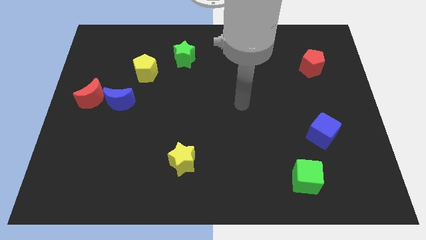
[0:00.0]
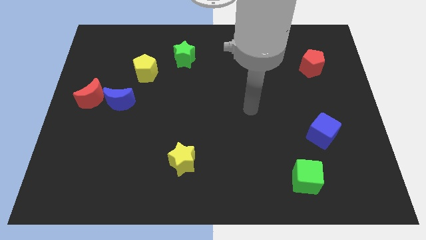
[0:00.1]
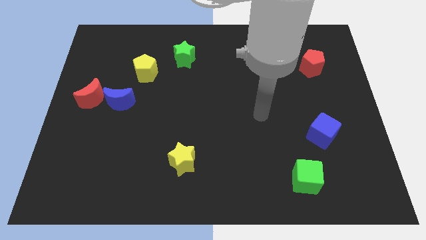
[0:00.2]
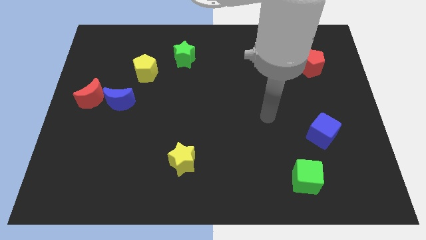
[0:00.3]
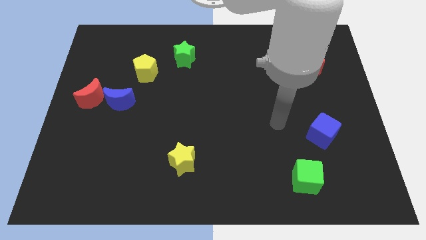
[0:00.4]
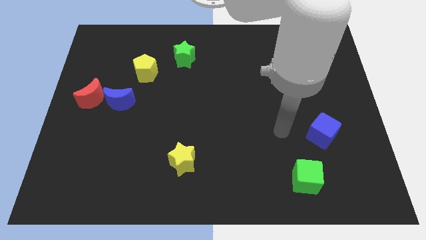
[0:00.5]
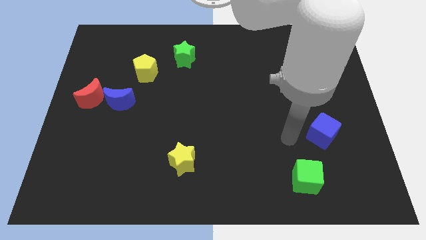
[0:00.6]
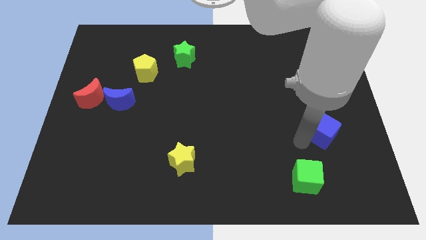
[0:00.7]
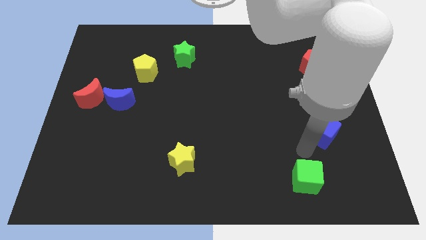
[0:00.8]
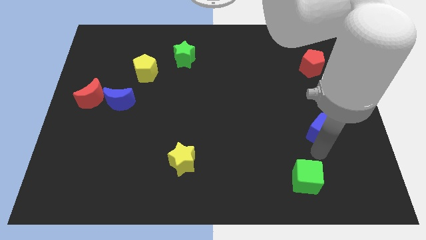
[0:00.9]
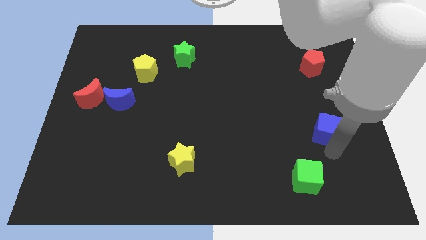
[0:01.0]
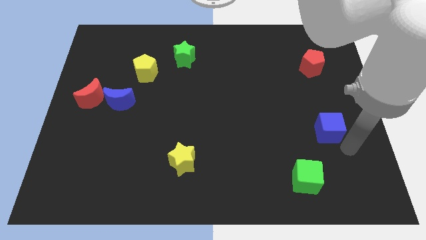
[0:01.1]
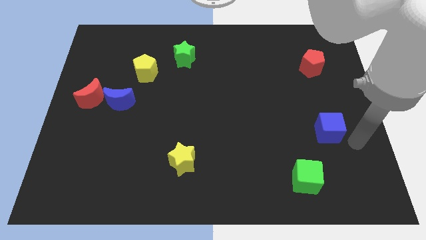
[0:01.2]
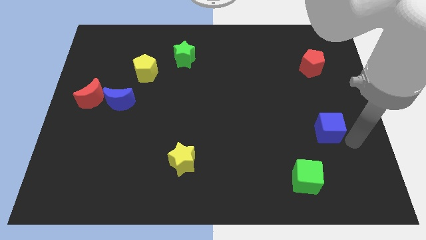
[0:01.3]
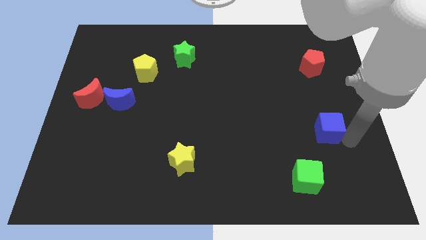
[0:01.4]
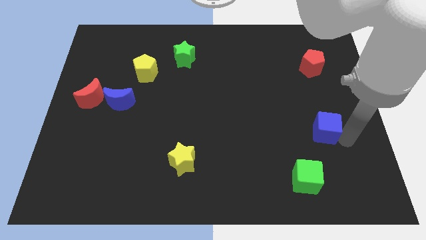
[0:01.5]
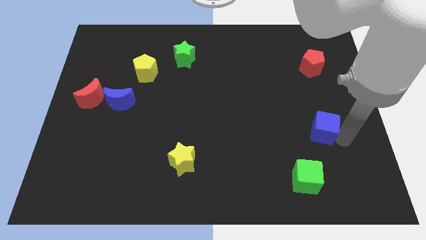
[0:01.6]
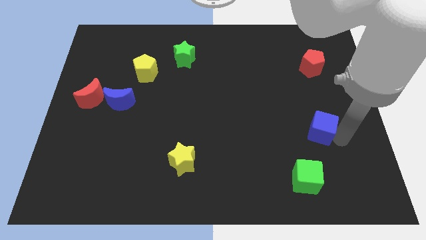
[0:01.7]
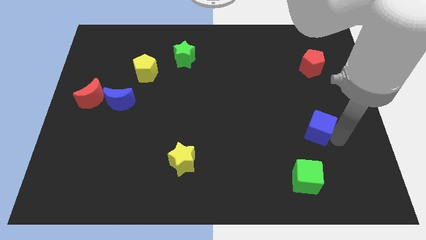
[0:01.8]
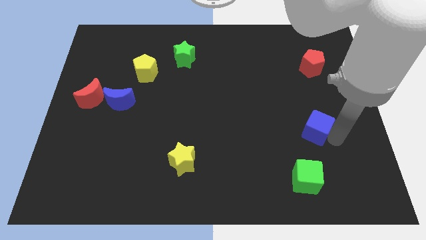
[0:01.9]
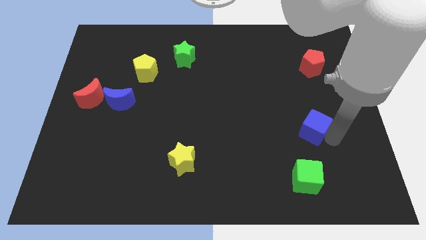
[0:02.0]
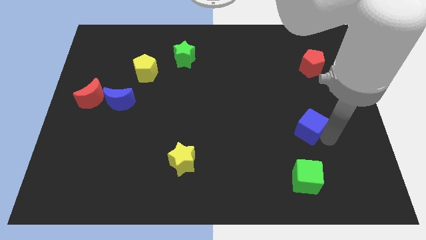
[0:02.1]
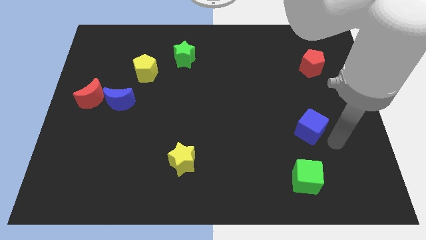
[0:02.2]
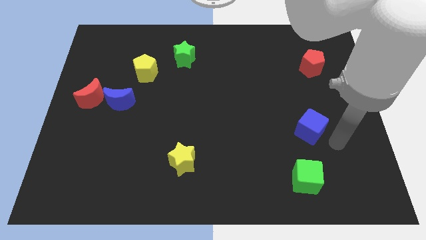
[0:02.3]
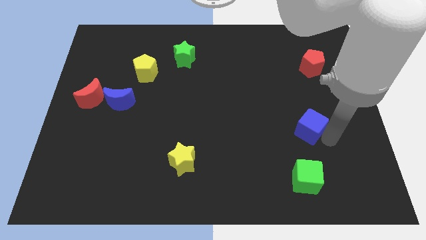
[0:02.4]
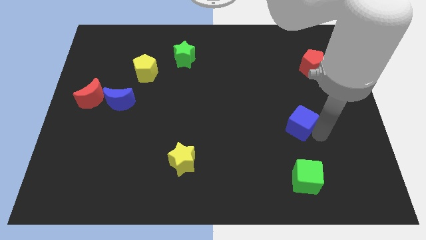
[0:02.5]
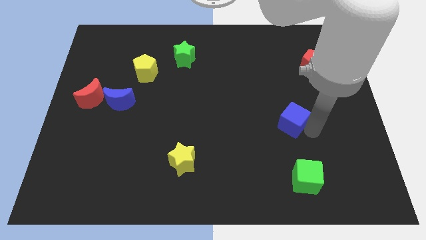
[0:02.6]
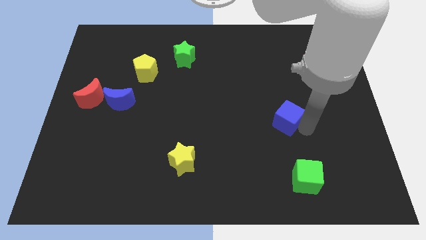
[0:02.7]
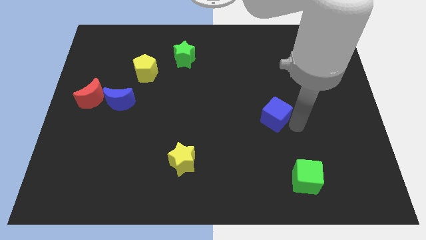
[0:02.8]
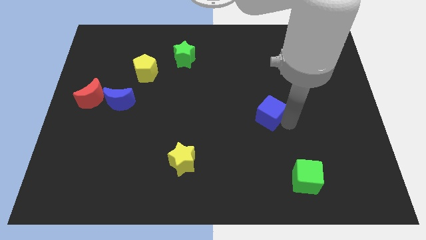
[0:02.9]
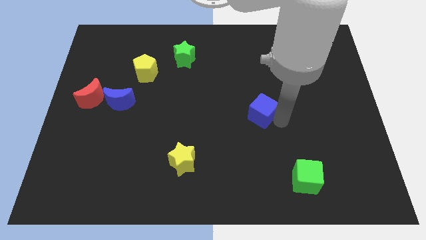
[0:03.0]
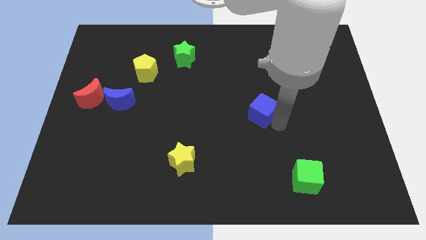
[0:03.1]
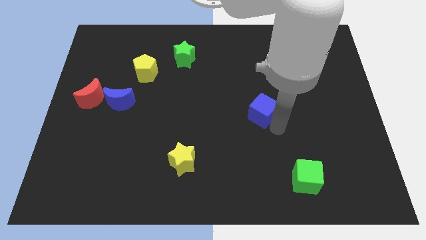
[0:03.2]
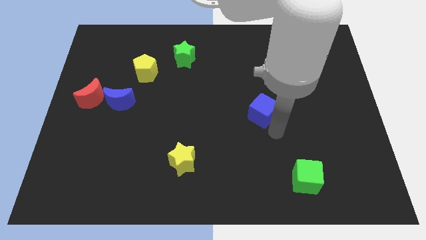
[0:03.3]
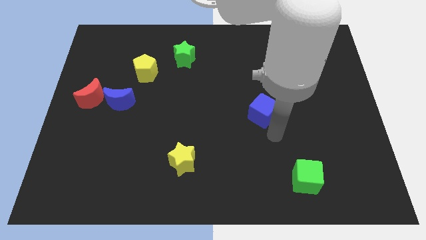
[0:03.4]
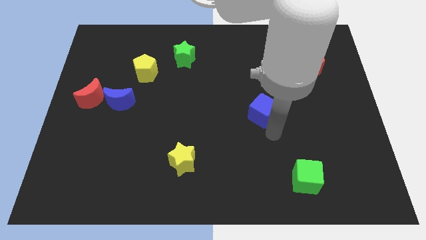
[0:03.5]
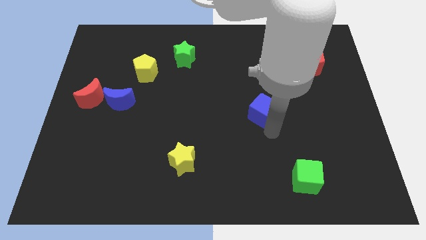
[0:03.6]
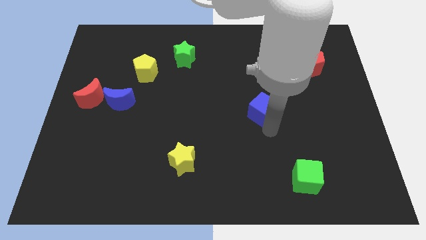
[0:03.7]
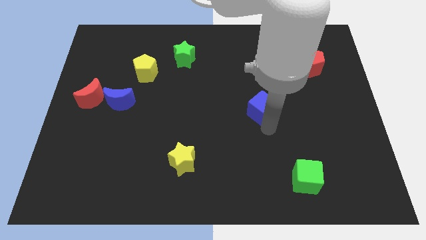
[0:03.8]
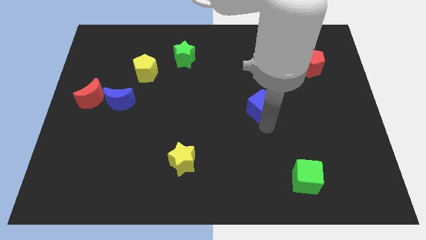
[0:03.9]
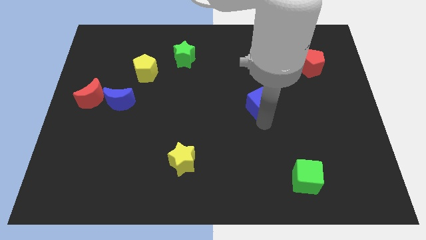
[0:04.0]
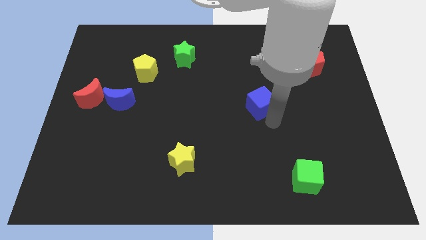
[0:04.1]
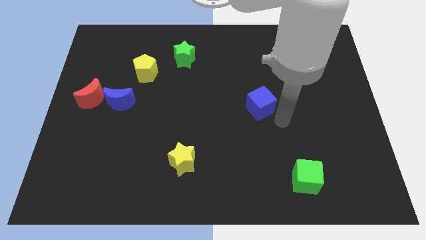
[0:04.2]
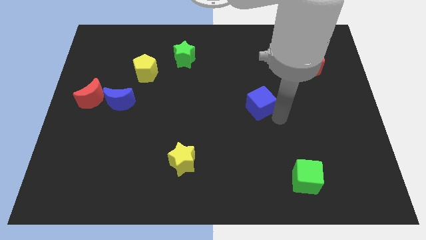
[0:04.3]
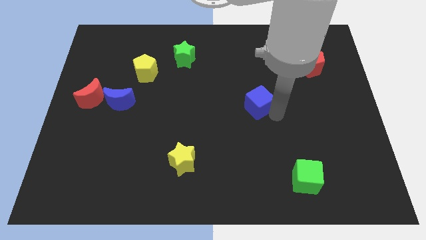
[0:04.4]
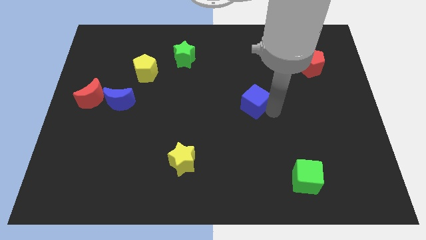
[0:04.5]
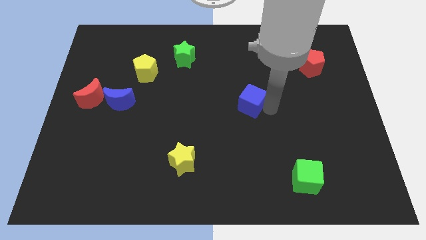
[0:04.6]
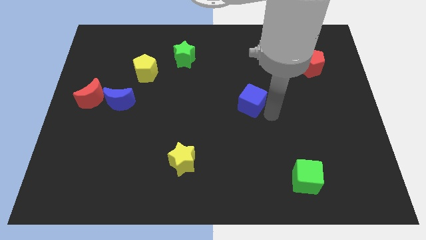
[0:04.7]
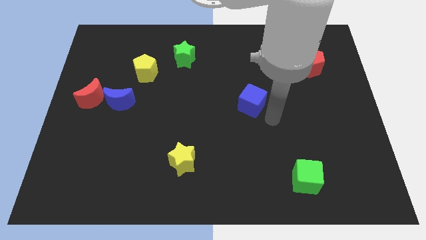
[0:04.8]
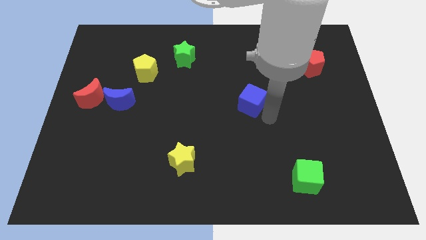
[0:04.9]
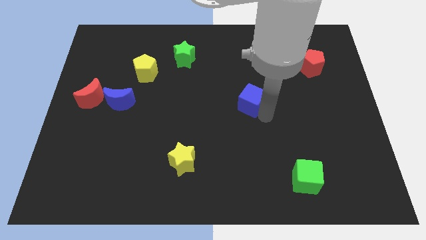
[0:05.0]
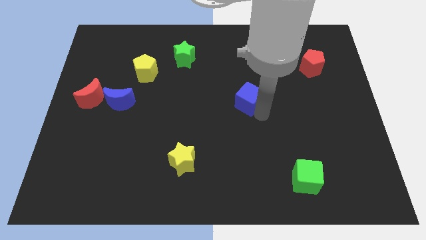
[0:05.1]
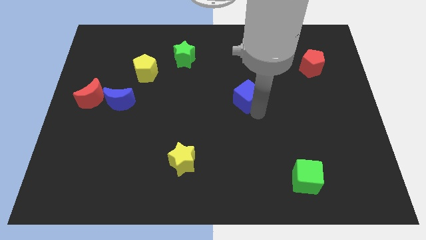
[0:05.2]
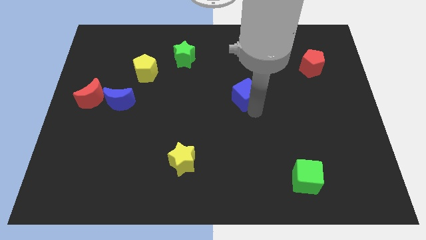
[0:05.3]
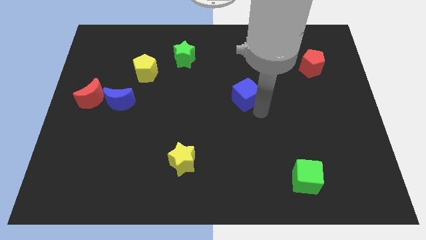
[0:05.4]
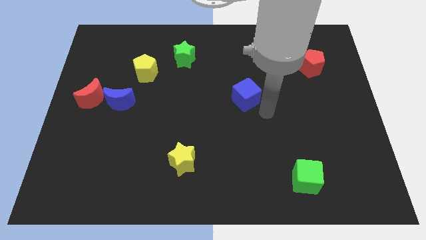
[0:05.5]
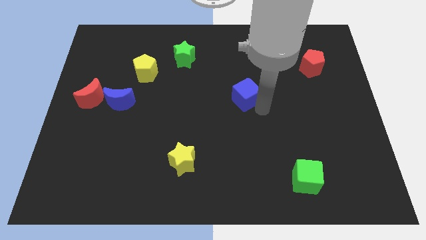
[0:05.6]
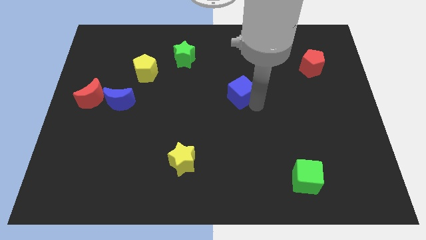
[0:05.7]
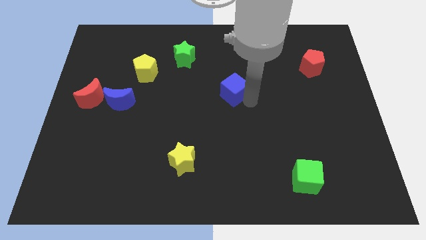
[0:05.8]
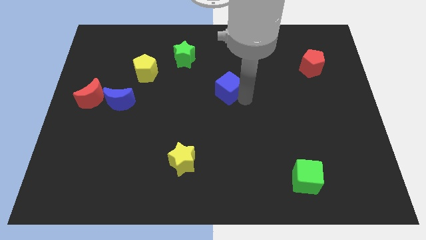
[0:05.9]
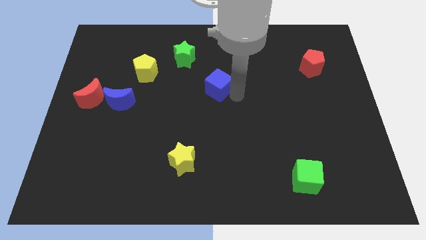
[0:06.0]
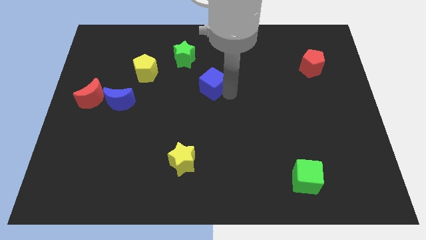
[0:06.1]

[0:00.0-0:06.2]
push the blue cube to the bottom right of the green star

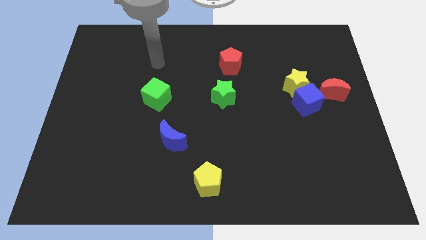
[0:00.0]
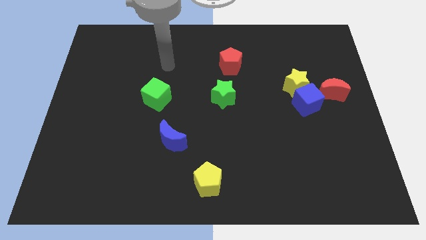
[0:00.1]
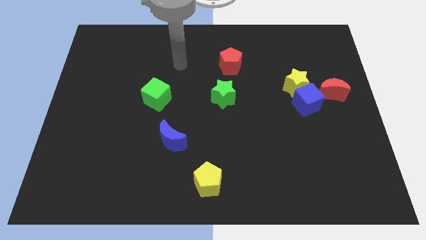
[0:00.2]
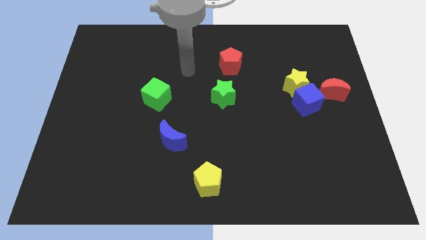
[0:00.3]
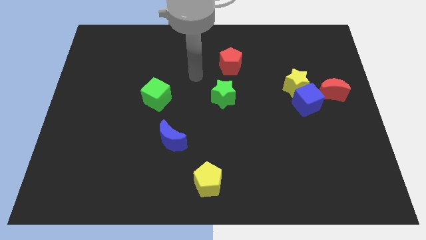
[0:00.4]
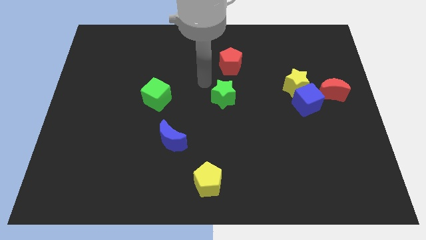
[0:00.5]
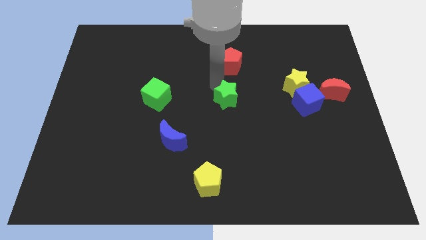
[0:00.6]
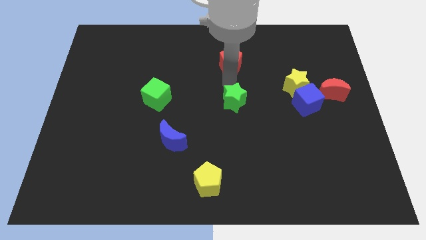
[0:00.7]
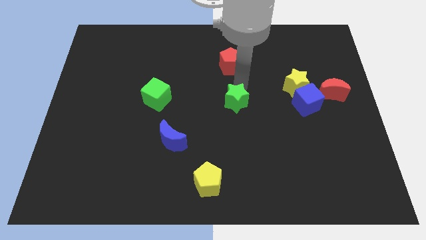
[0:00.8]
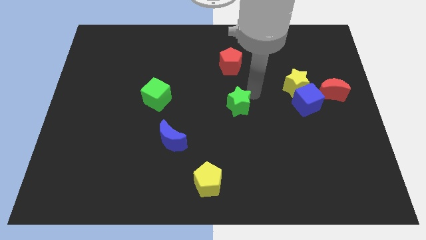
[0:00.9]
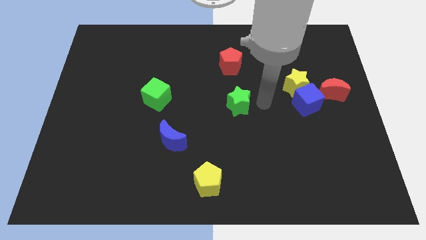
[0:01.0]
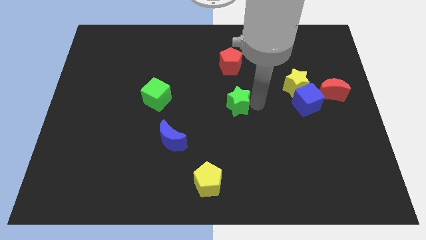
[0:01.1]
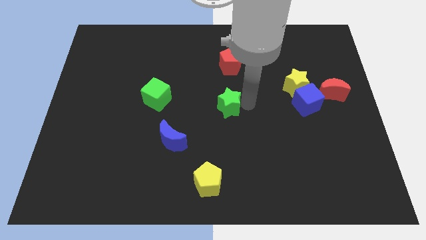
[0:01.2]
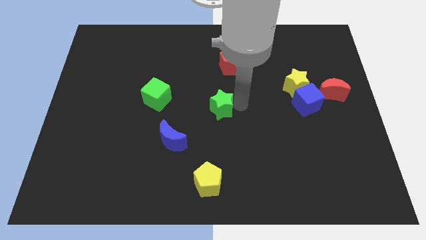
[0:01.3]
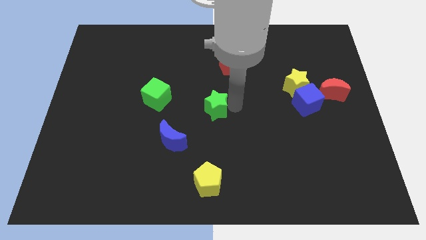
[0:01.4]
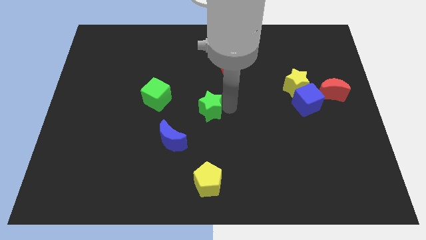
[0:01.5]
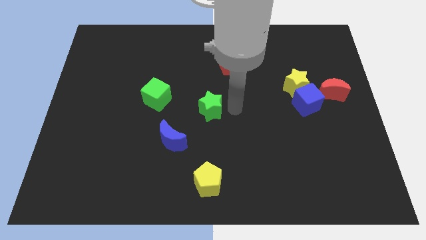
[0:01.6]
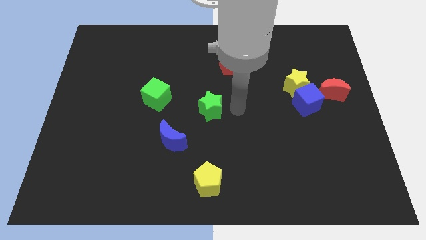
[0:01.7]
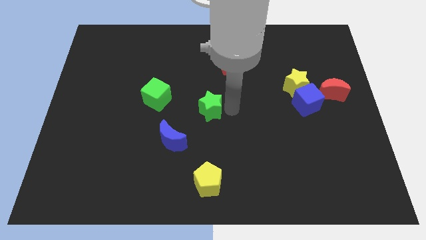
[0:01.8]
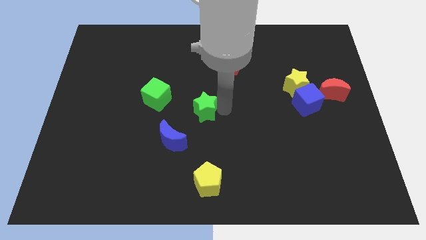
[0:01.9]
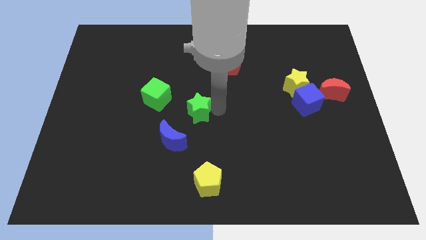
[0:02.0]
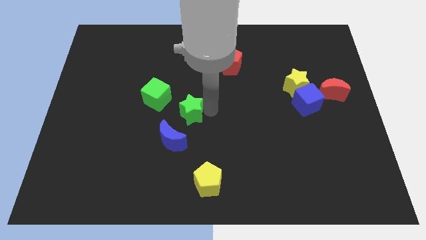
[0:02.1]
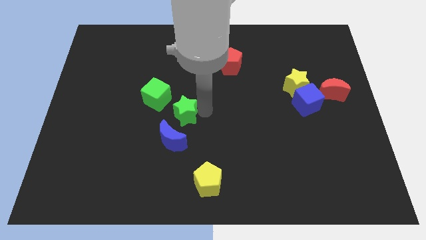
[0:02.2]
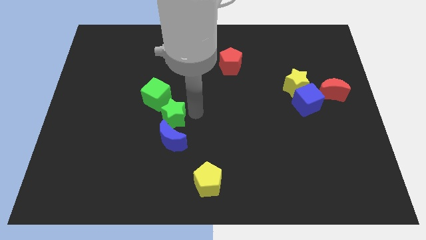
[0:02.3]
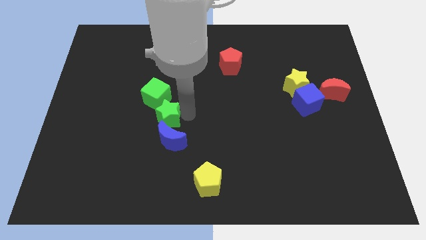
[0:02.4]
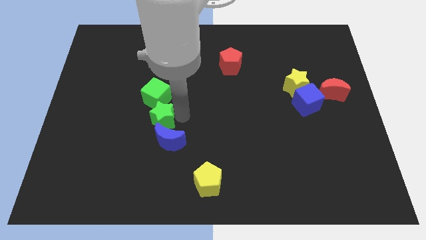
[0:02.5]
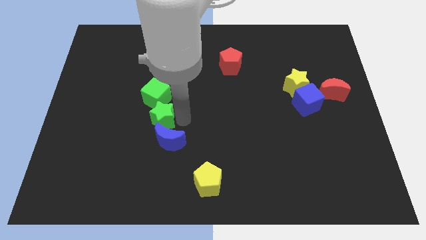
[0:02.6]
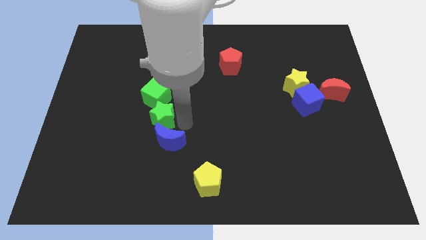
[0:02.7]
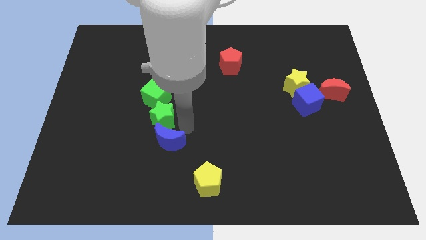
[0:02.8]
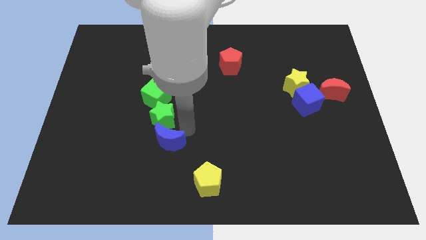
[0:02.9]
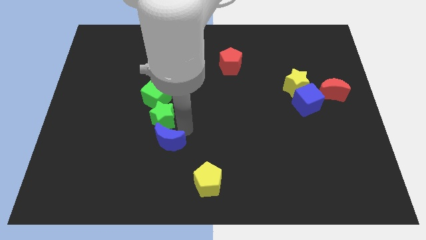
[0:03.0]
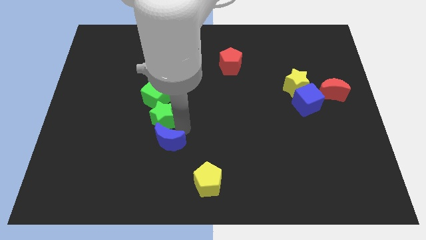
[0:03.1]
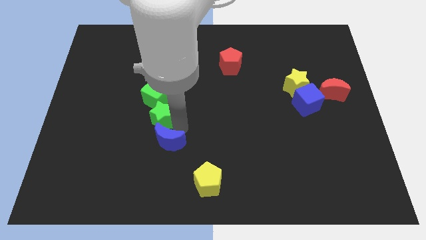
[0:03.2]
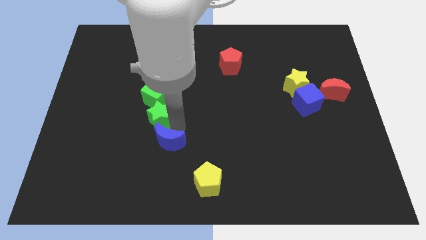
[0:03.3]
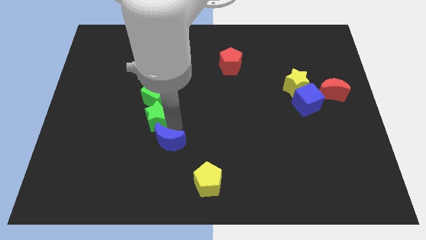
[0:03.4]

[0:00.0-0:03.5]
slide the green star to the bottom left side of the green cube
